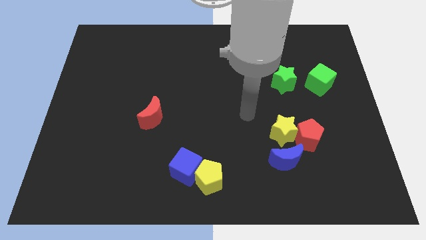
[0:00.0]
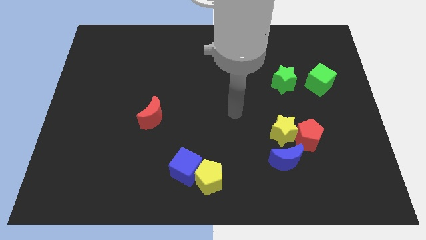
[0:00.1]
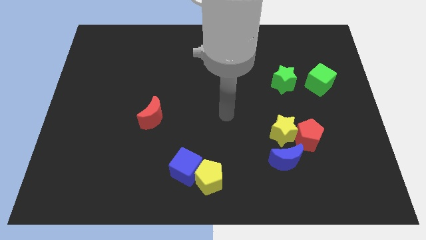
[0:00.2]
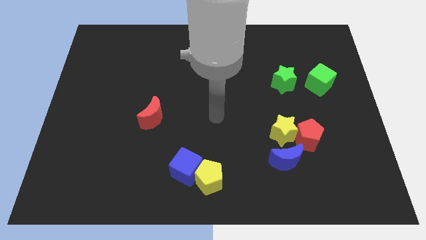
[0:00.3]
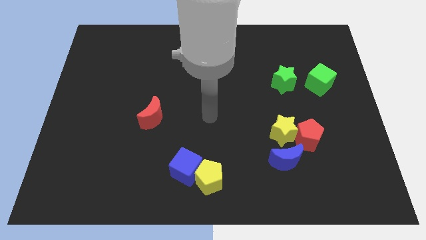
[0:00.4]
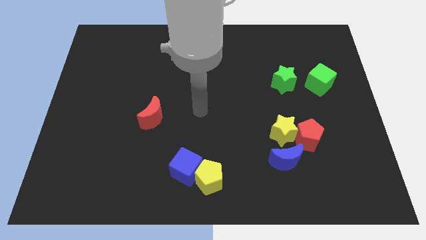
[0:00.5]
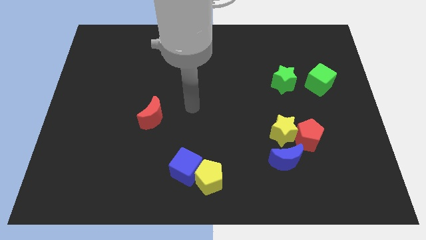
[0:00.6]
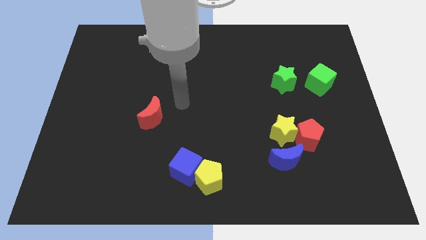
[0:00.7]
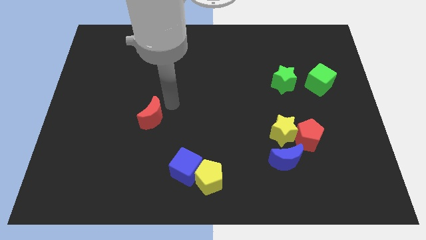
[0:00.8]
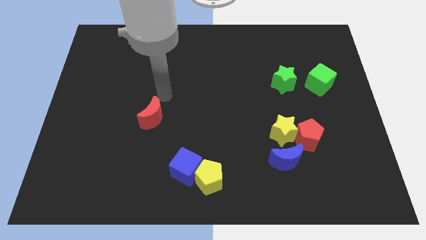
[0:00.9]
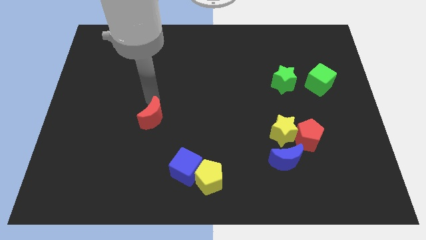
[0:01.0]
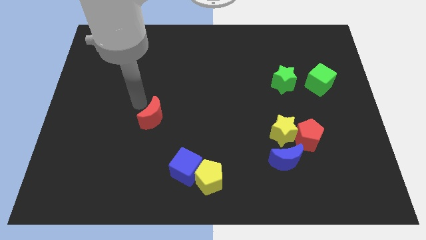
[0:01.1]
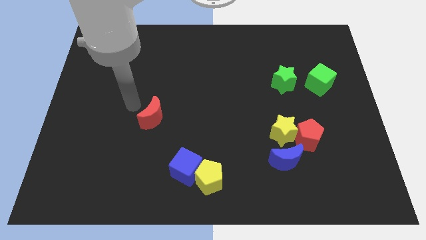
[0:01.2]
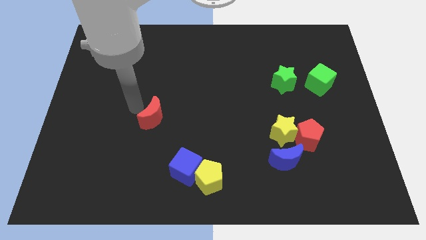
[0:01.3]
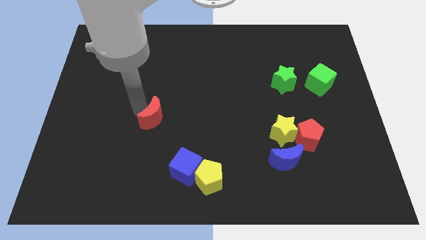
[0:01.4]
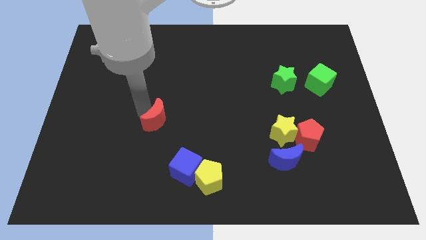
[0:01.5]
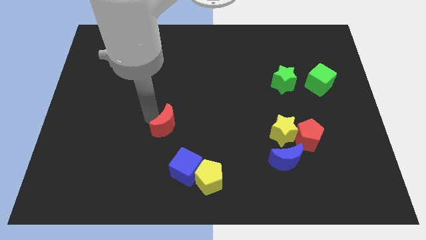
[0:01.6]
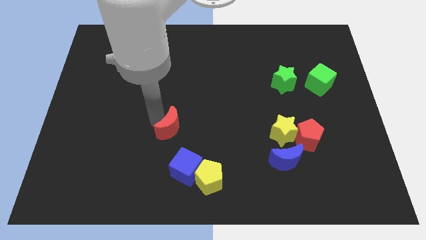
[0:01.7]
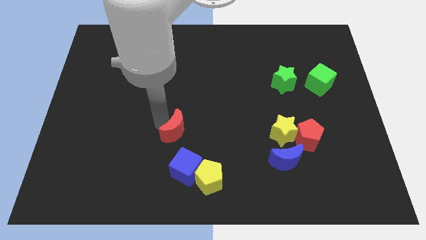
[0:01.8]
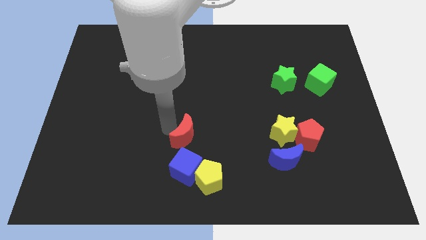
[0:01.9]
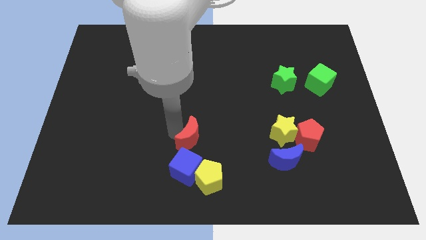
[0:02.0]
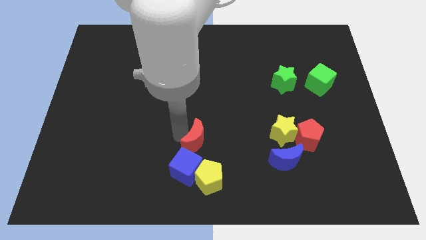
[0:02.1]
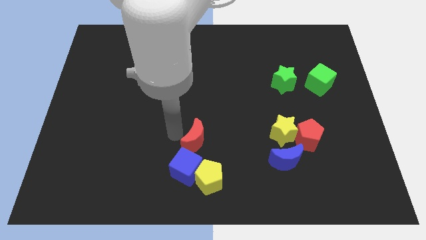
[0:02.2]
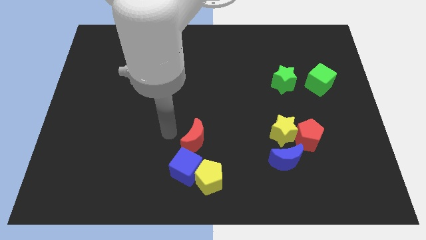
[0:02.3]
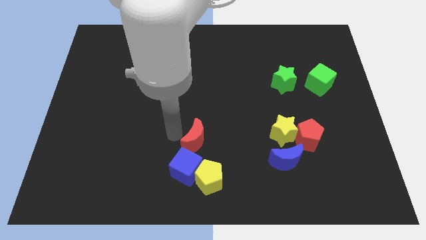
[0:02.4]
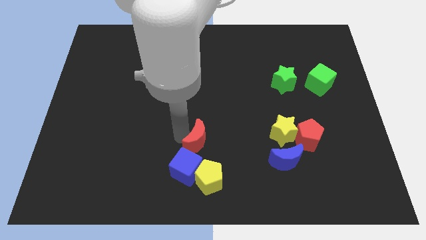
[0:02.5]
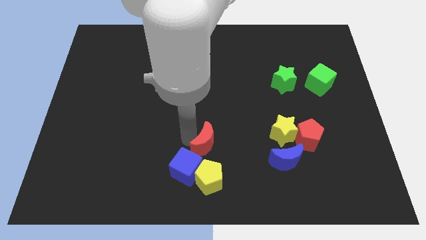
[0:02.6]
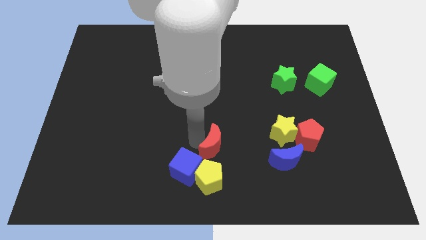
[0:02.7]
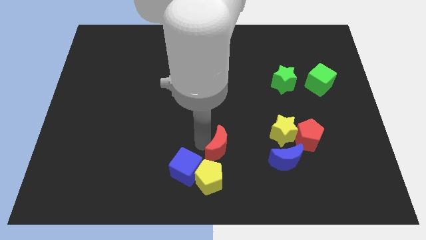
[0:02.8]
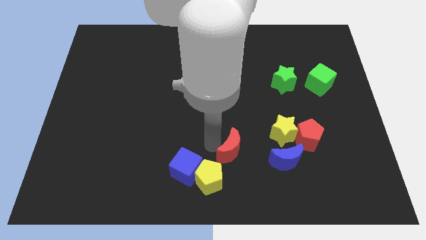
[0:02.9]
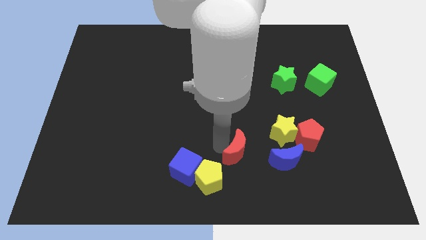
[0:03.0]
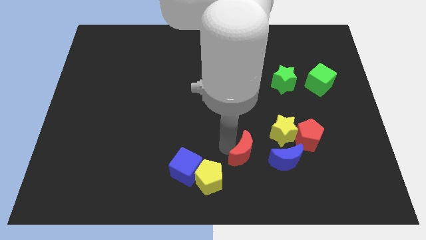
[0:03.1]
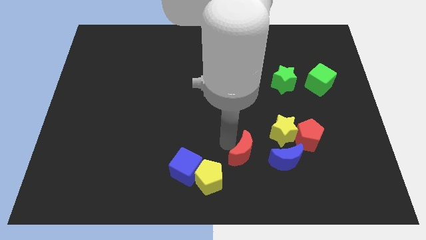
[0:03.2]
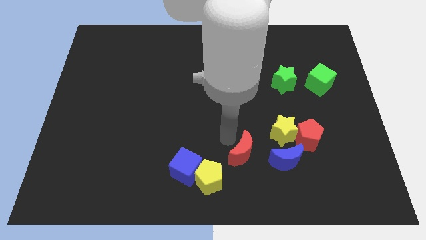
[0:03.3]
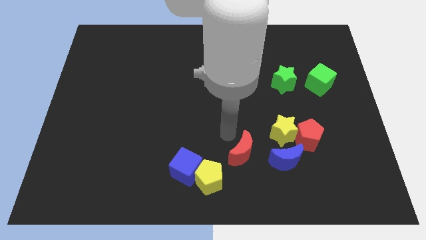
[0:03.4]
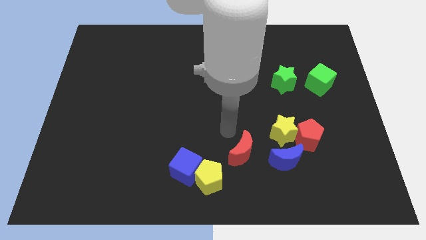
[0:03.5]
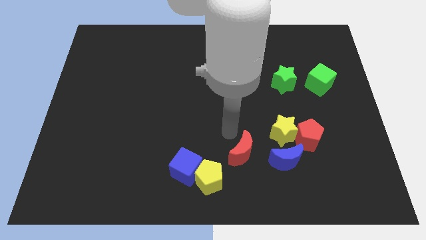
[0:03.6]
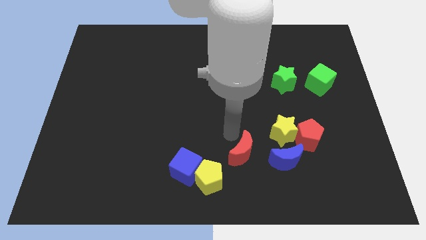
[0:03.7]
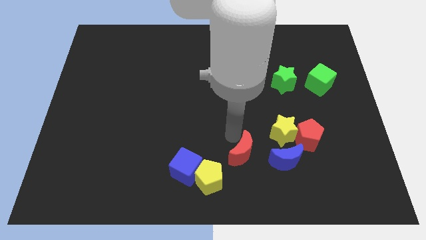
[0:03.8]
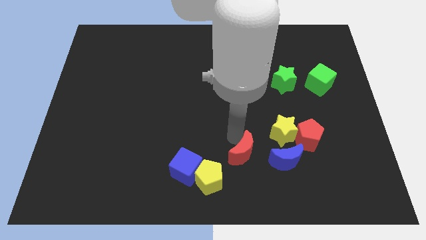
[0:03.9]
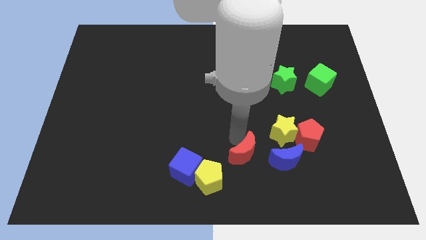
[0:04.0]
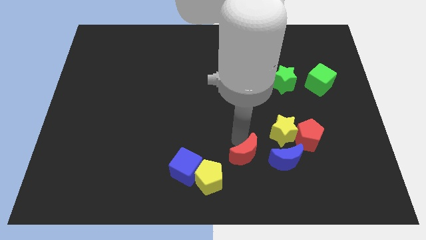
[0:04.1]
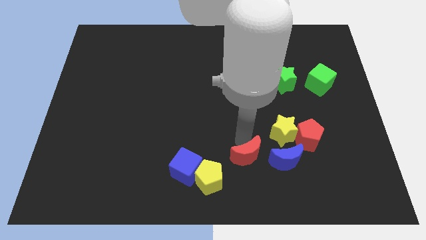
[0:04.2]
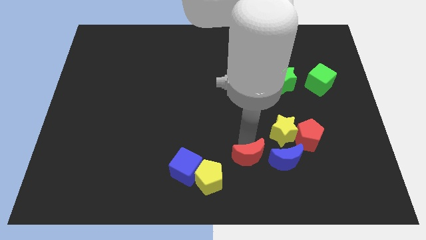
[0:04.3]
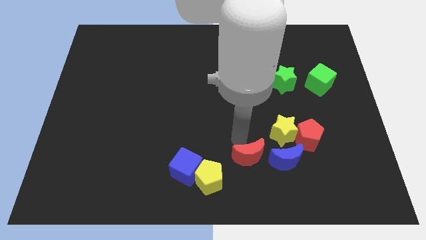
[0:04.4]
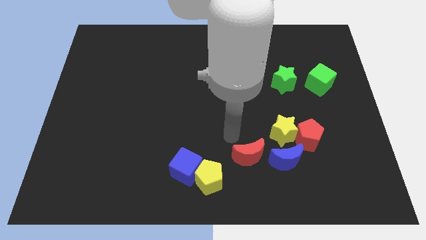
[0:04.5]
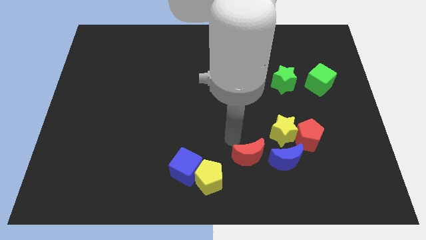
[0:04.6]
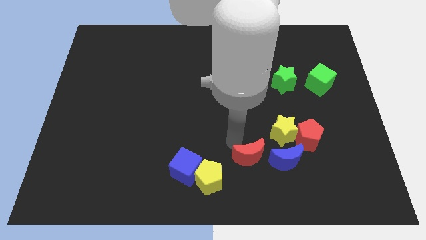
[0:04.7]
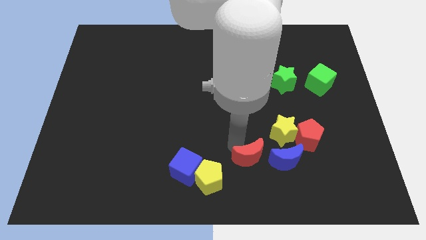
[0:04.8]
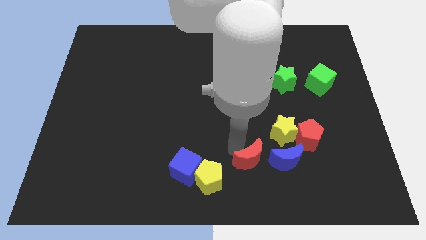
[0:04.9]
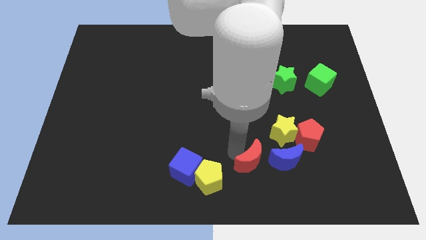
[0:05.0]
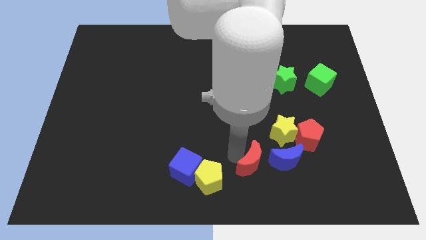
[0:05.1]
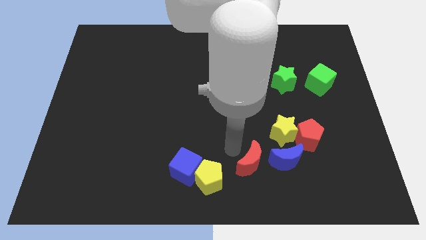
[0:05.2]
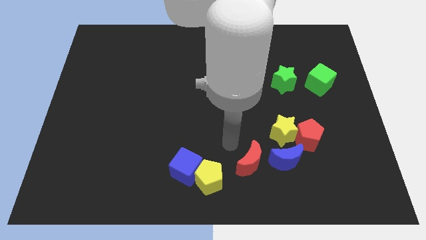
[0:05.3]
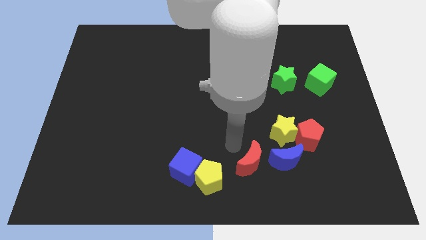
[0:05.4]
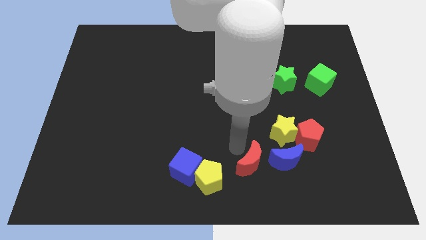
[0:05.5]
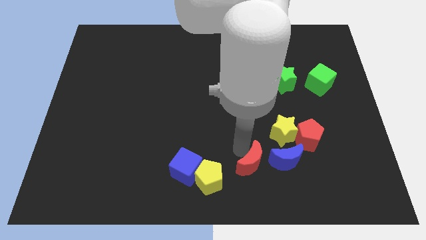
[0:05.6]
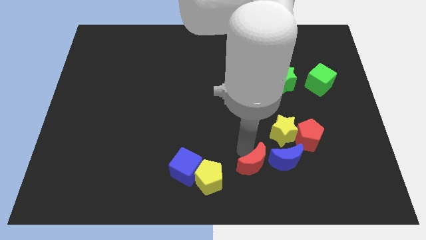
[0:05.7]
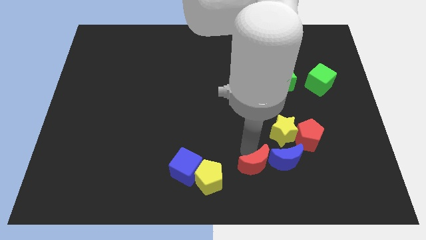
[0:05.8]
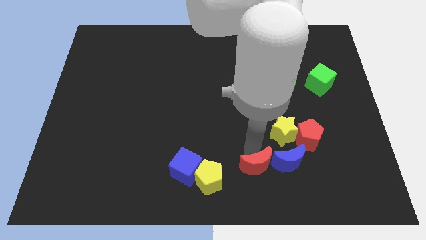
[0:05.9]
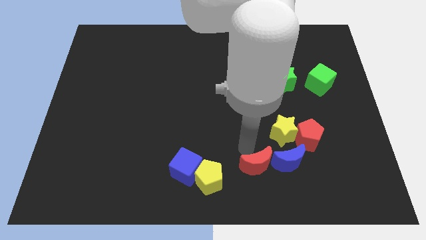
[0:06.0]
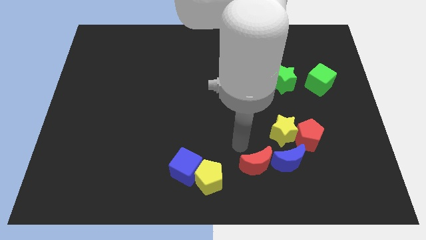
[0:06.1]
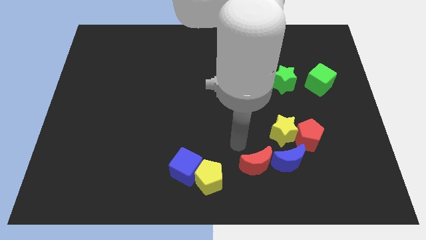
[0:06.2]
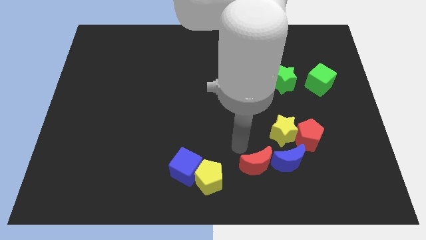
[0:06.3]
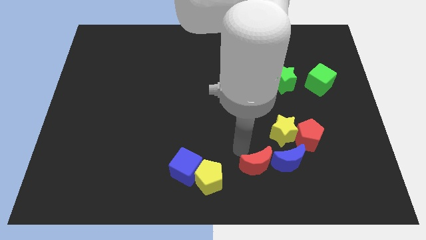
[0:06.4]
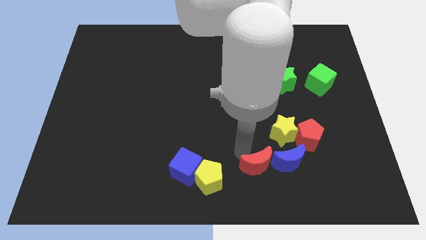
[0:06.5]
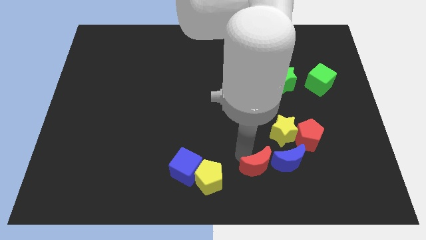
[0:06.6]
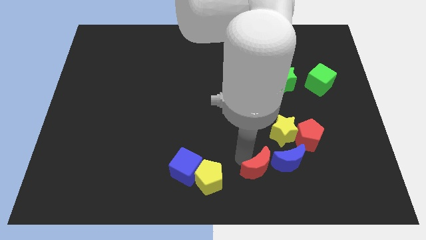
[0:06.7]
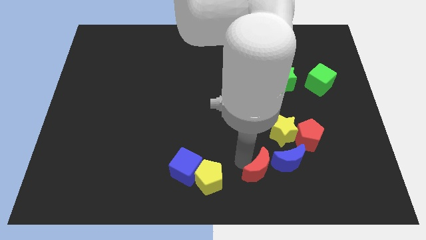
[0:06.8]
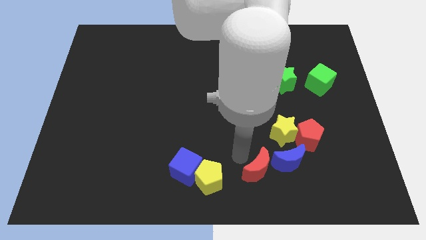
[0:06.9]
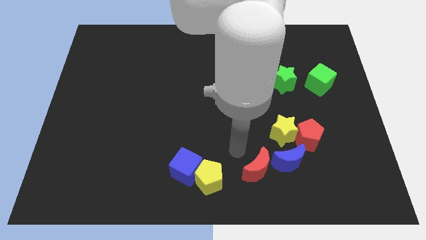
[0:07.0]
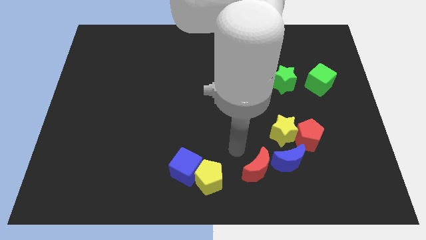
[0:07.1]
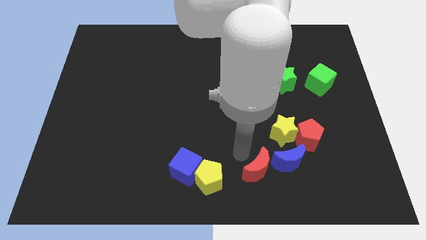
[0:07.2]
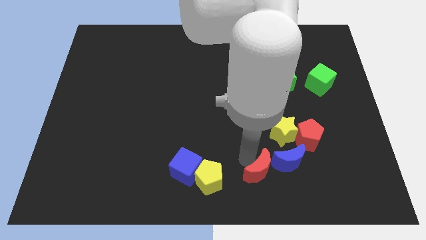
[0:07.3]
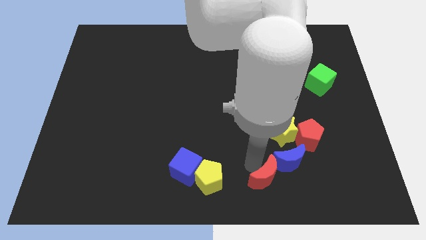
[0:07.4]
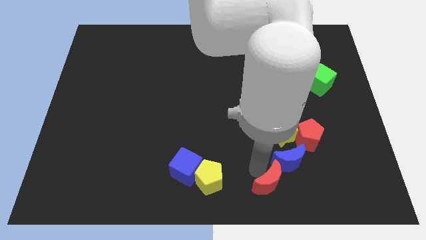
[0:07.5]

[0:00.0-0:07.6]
slide the red moon below the yellow star
